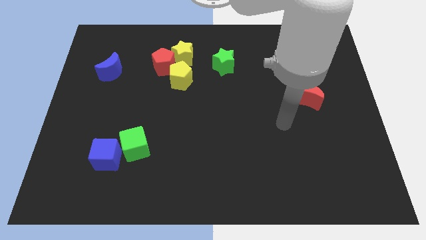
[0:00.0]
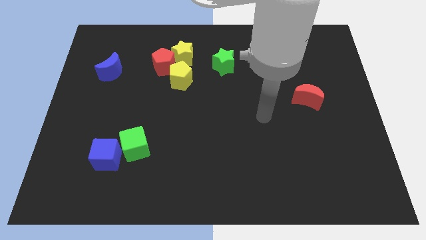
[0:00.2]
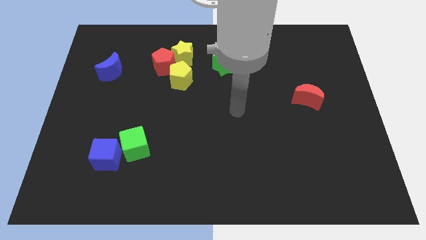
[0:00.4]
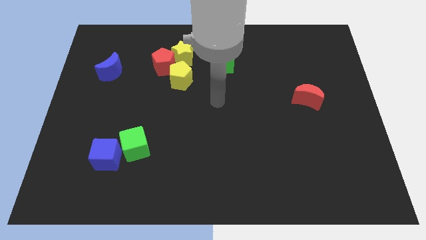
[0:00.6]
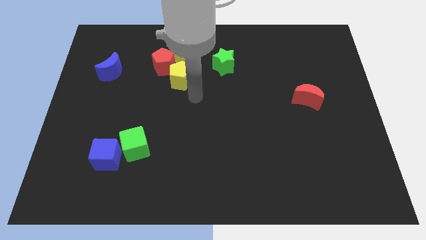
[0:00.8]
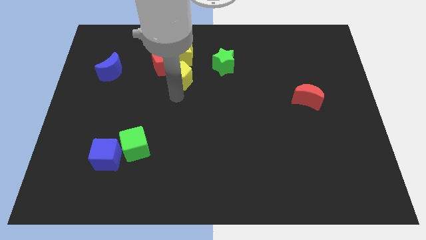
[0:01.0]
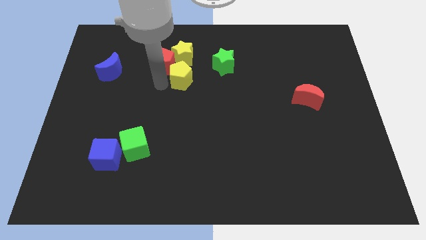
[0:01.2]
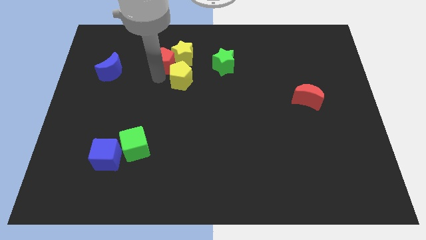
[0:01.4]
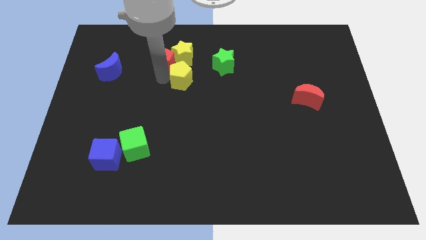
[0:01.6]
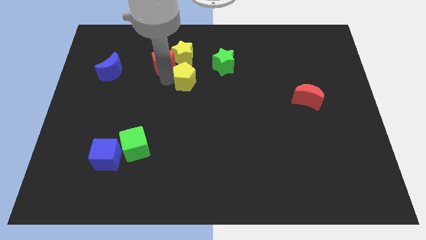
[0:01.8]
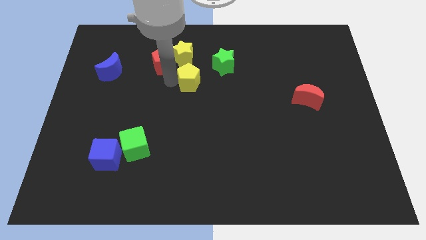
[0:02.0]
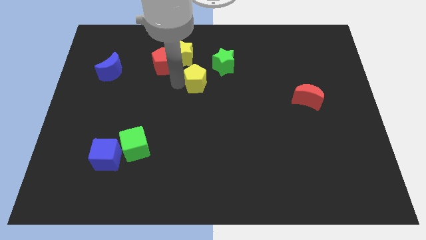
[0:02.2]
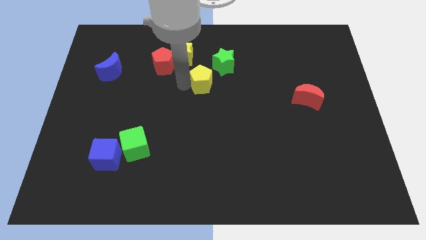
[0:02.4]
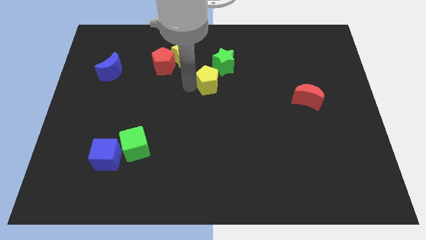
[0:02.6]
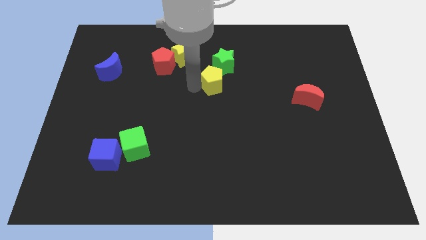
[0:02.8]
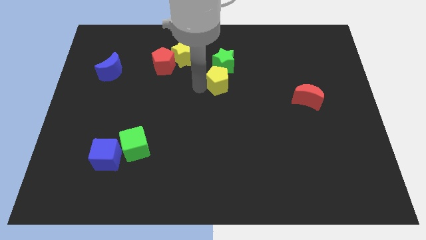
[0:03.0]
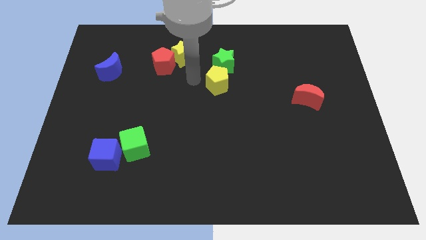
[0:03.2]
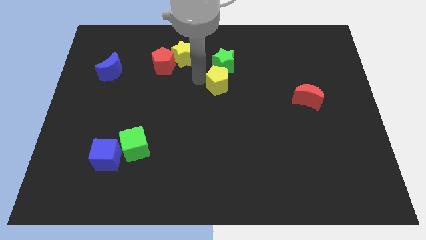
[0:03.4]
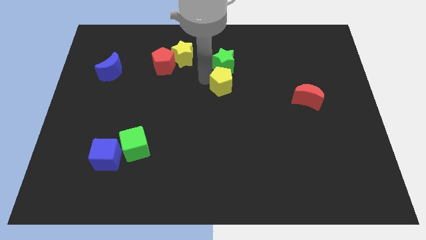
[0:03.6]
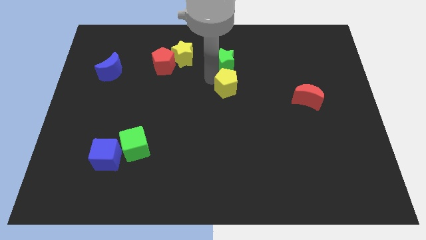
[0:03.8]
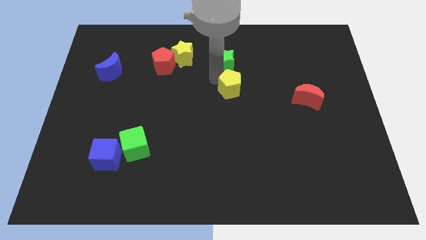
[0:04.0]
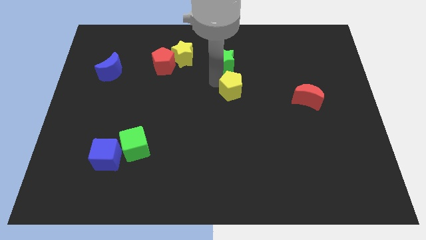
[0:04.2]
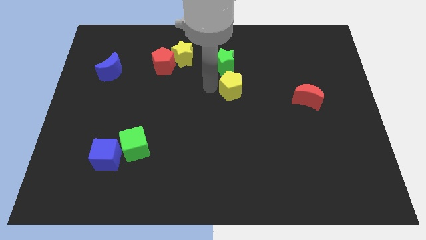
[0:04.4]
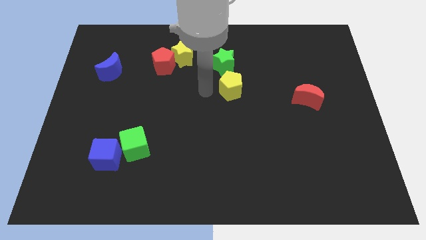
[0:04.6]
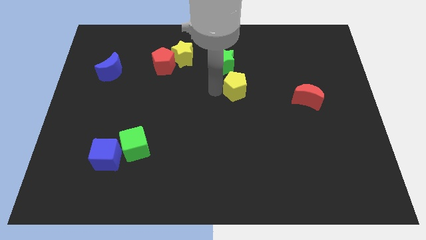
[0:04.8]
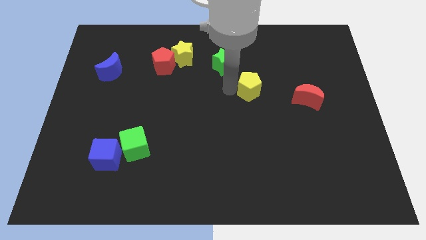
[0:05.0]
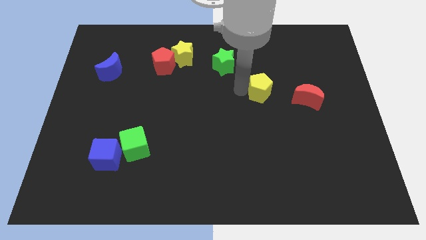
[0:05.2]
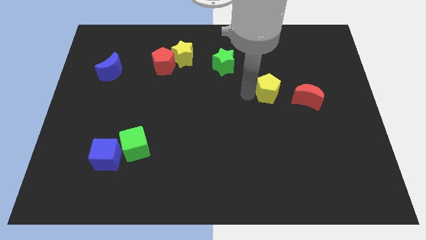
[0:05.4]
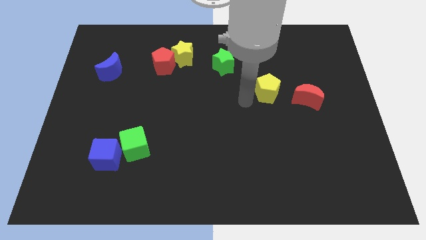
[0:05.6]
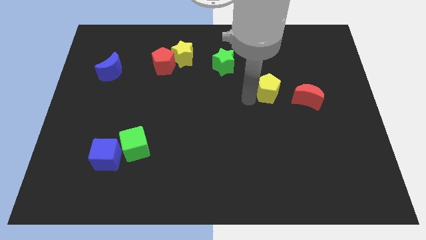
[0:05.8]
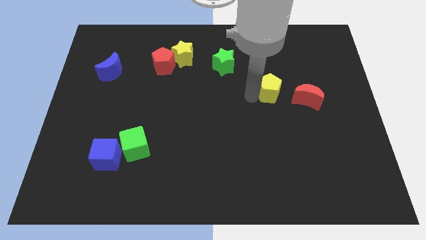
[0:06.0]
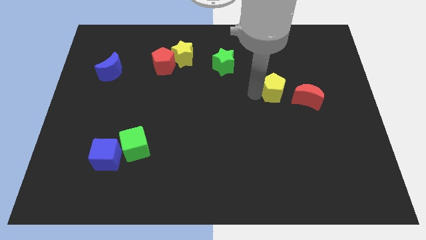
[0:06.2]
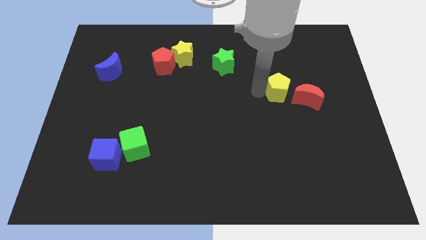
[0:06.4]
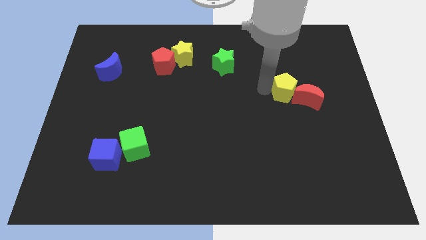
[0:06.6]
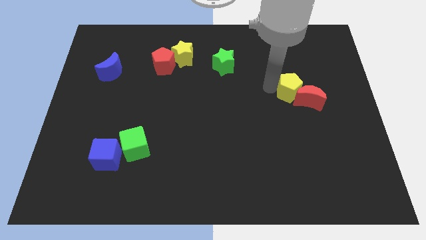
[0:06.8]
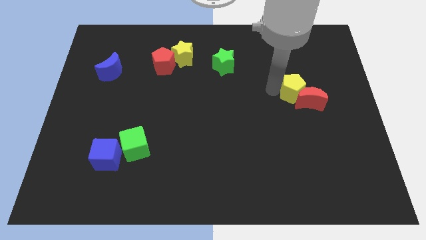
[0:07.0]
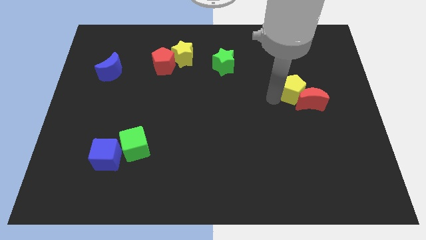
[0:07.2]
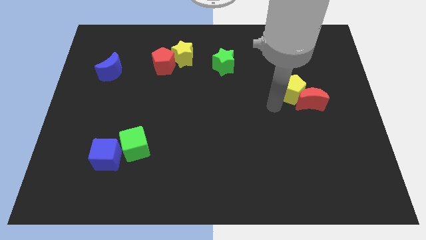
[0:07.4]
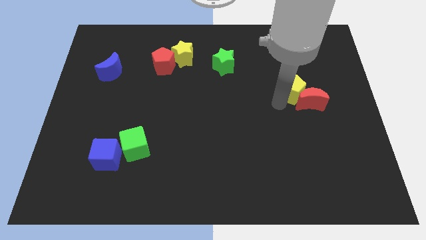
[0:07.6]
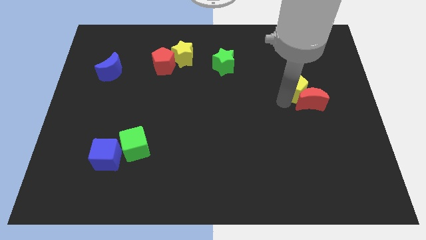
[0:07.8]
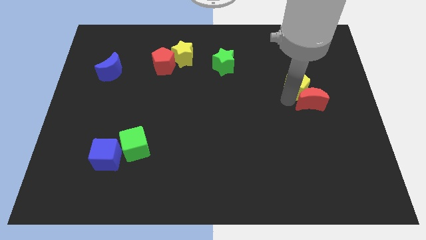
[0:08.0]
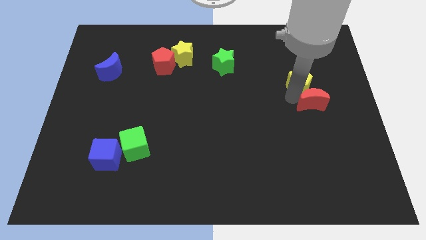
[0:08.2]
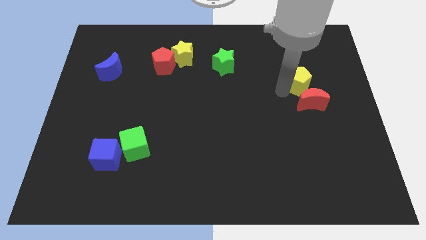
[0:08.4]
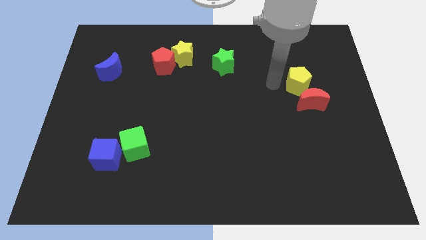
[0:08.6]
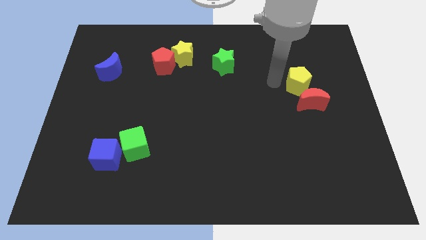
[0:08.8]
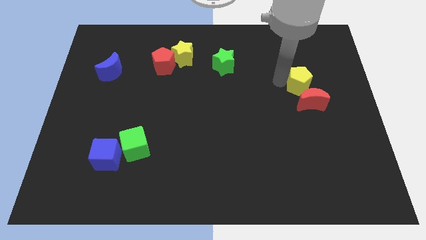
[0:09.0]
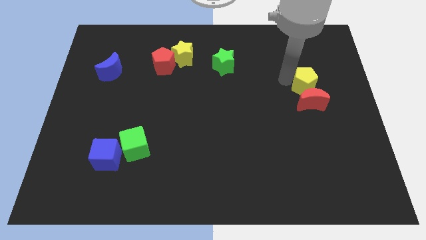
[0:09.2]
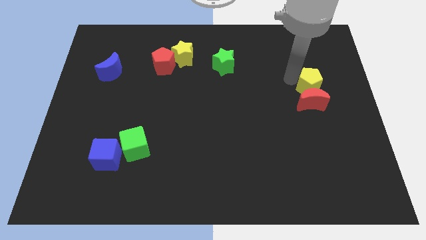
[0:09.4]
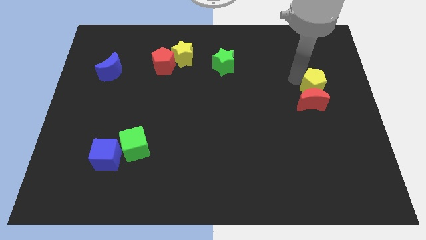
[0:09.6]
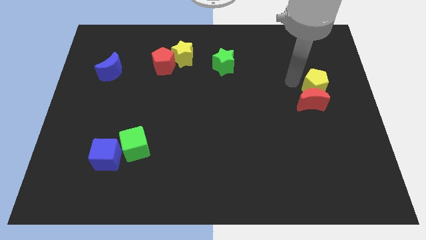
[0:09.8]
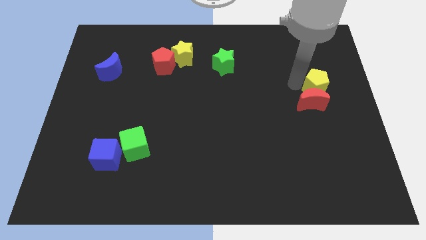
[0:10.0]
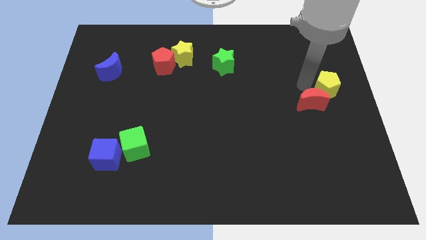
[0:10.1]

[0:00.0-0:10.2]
put the yellow pentagon to the center right

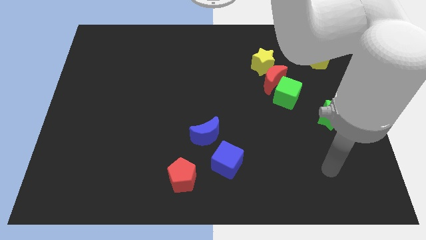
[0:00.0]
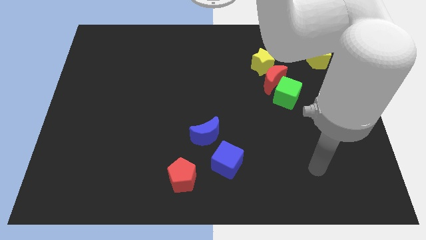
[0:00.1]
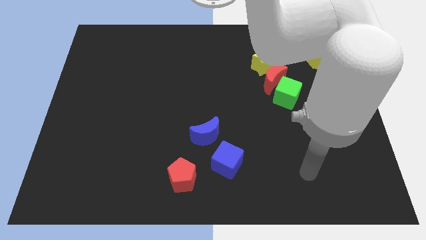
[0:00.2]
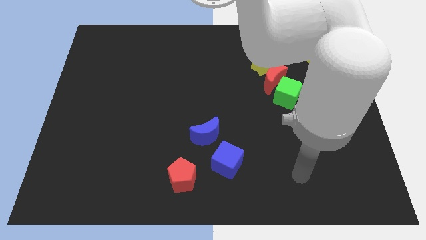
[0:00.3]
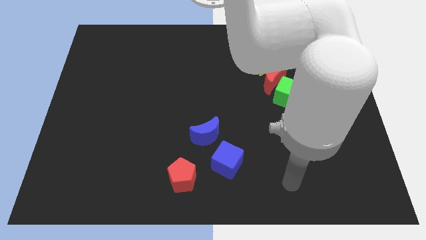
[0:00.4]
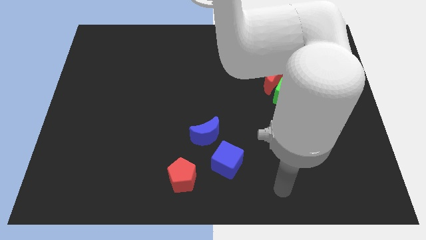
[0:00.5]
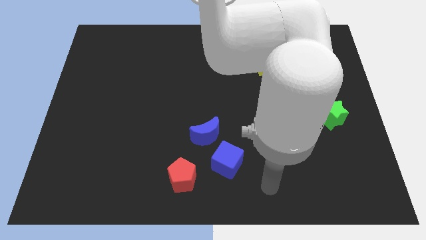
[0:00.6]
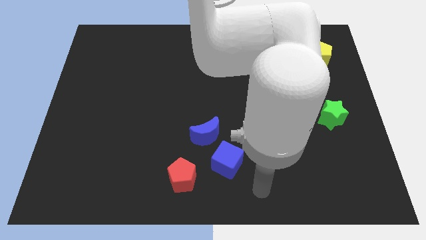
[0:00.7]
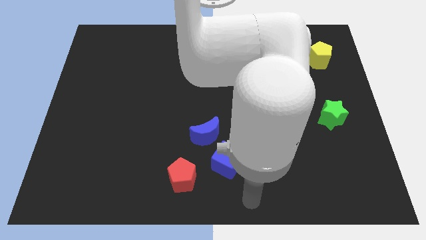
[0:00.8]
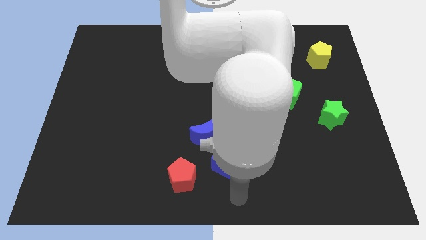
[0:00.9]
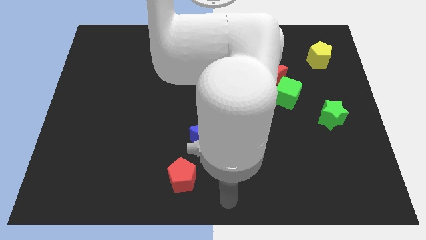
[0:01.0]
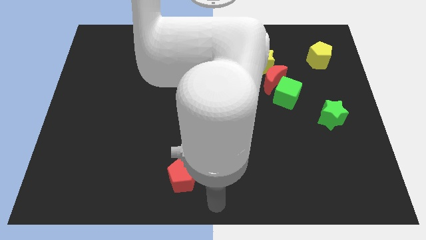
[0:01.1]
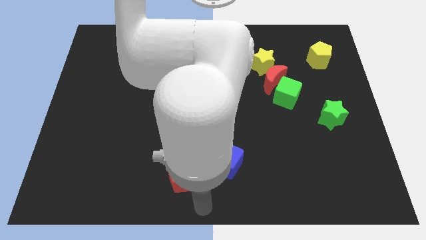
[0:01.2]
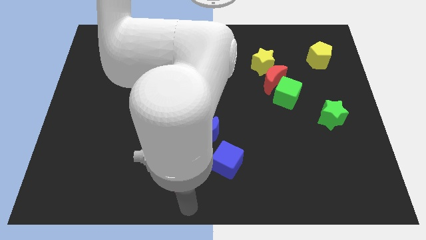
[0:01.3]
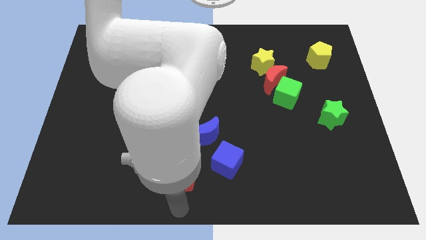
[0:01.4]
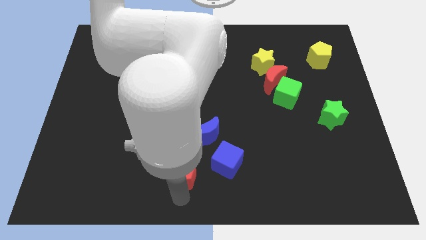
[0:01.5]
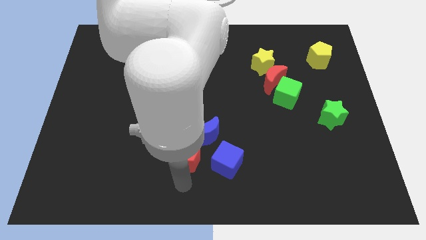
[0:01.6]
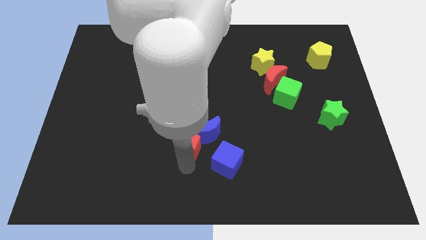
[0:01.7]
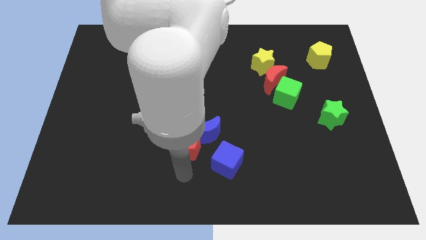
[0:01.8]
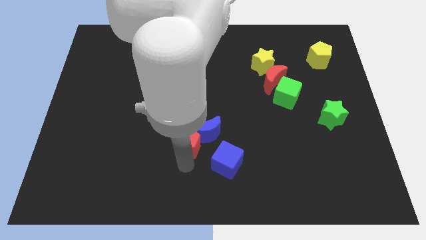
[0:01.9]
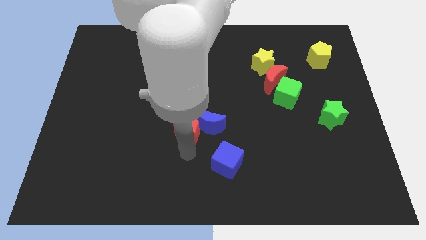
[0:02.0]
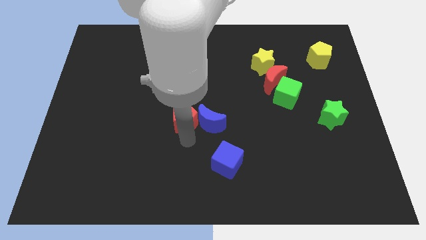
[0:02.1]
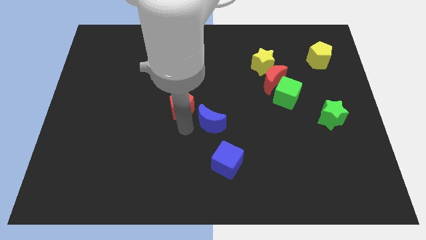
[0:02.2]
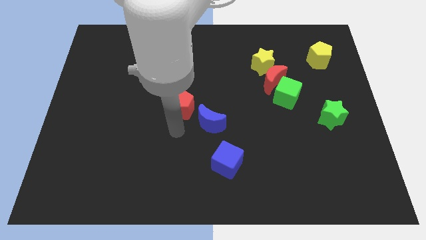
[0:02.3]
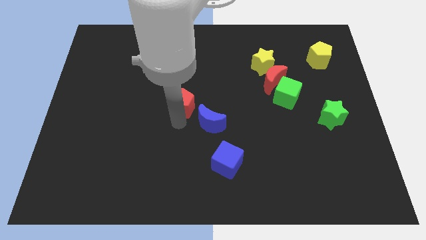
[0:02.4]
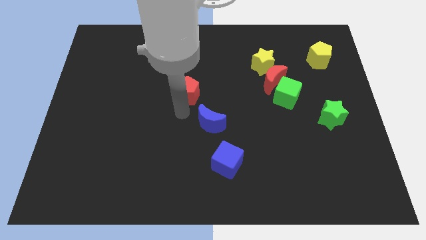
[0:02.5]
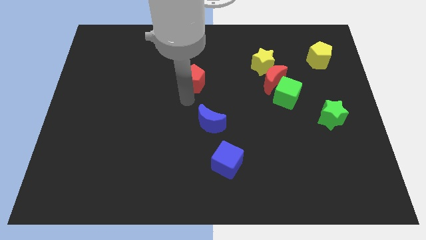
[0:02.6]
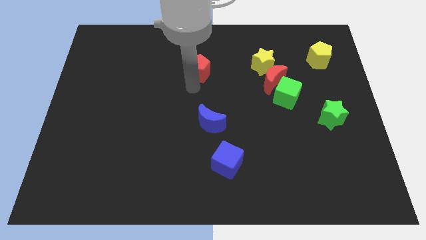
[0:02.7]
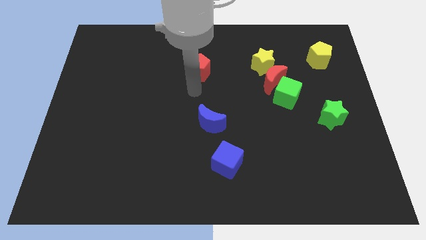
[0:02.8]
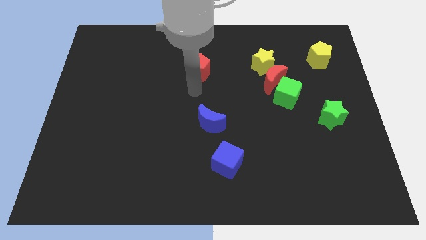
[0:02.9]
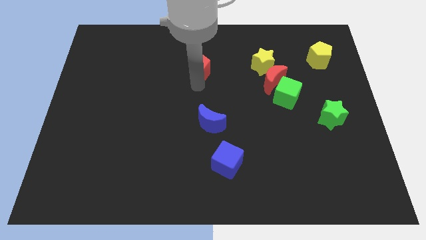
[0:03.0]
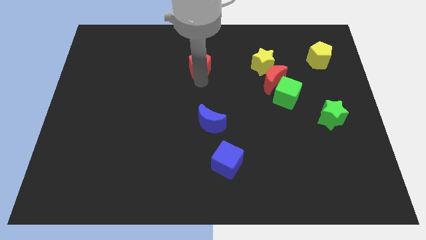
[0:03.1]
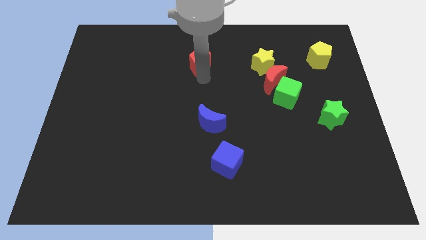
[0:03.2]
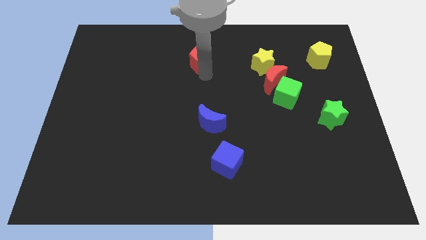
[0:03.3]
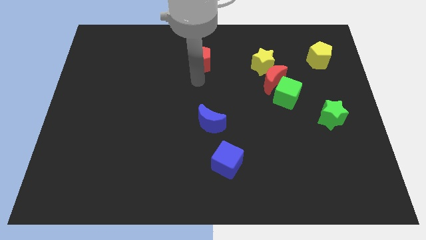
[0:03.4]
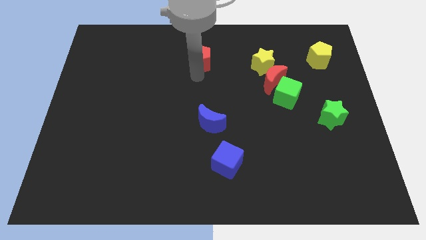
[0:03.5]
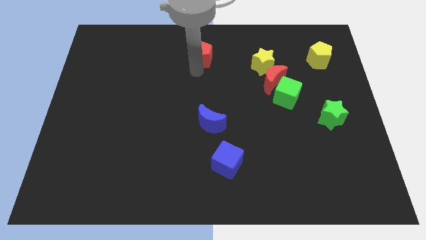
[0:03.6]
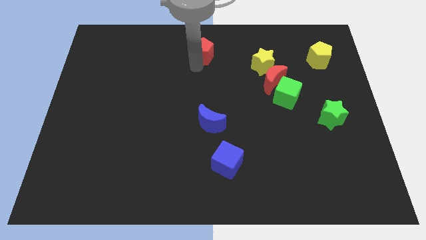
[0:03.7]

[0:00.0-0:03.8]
slide the red pentagon to the towards your base
